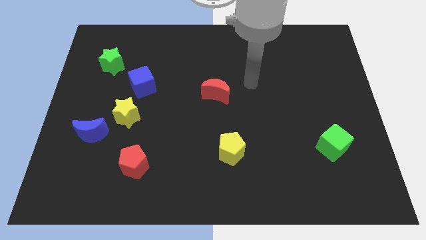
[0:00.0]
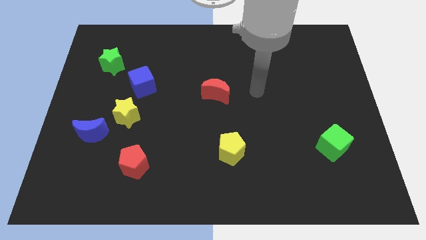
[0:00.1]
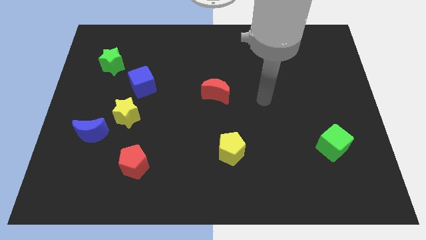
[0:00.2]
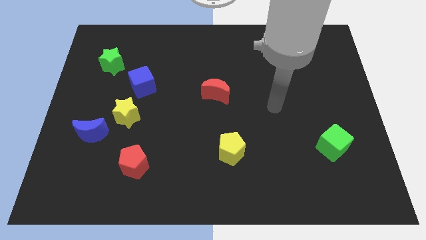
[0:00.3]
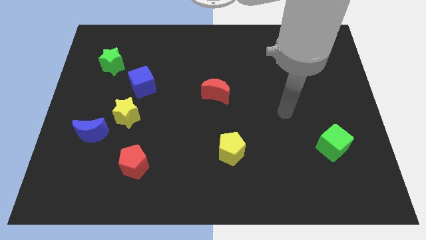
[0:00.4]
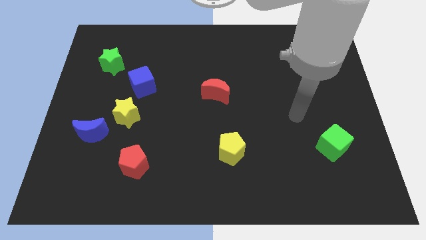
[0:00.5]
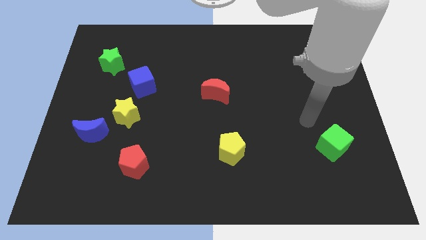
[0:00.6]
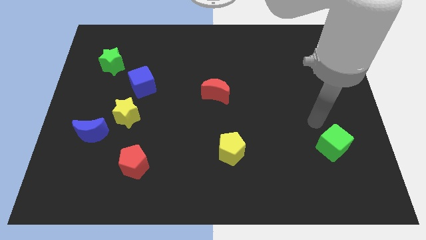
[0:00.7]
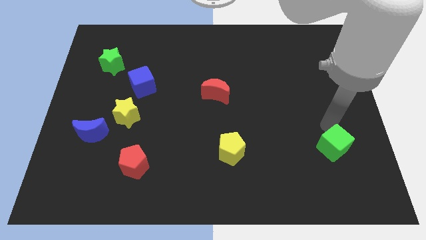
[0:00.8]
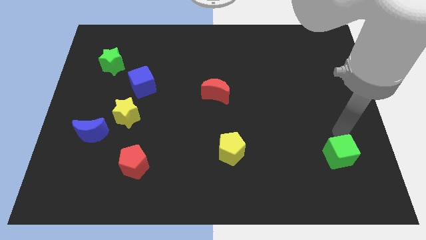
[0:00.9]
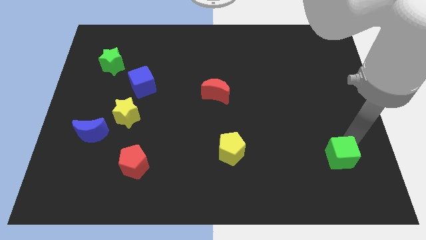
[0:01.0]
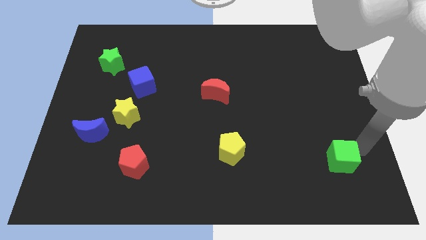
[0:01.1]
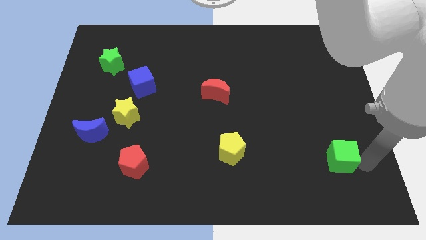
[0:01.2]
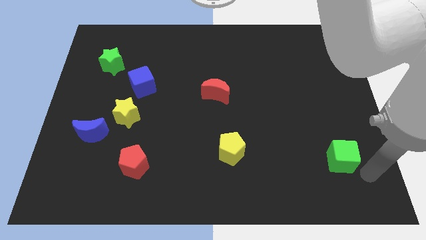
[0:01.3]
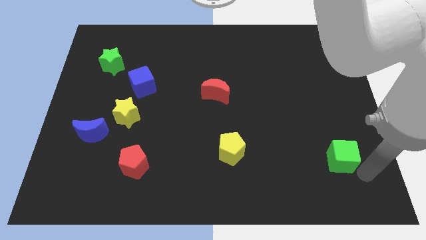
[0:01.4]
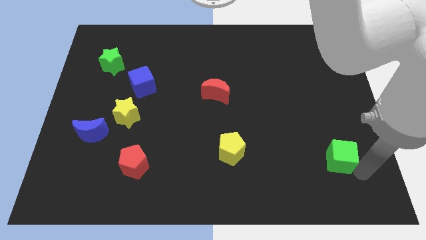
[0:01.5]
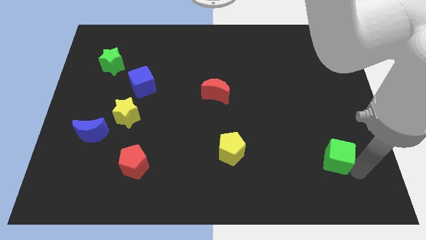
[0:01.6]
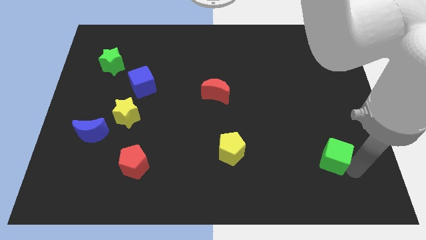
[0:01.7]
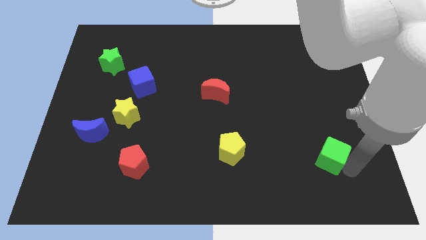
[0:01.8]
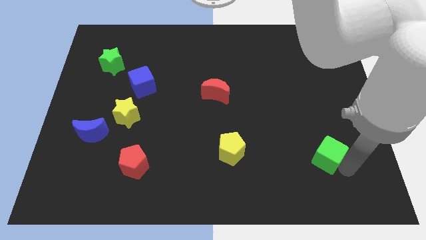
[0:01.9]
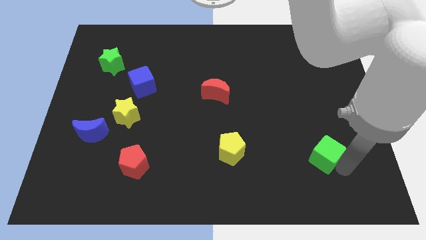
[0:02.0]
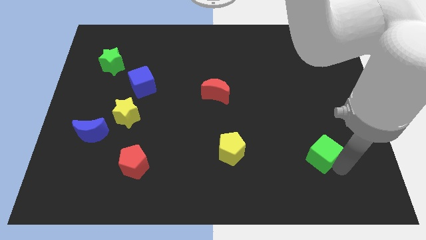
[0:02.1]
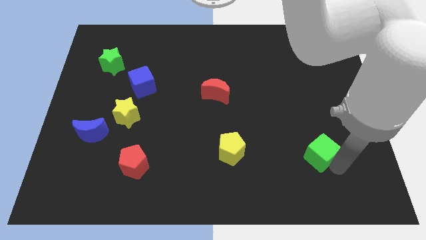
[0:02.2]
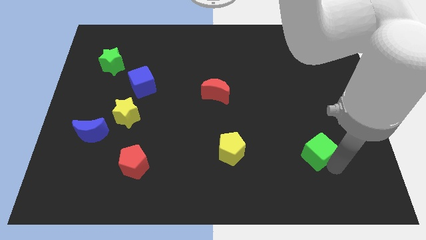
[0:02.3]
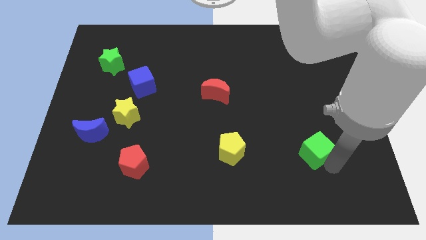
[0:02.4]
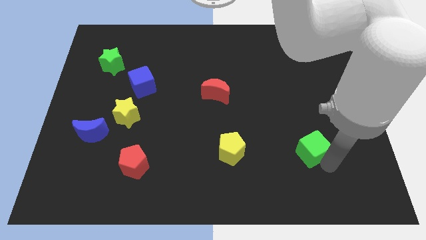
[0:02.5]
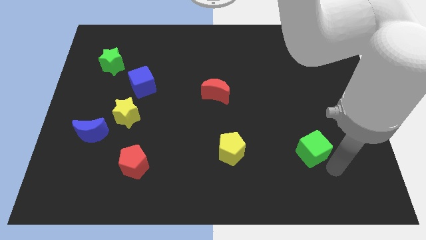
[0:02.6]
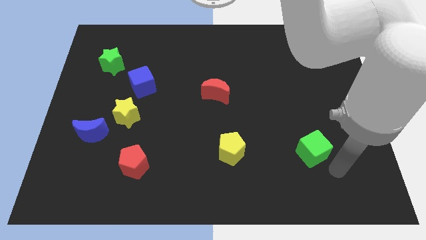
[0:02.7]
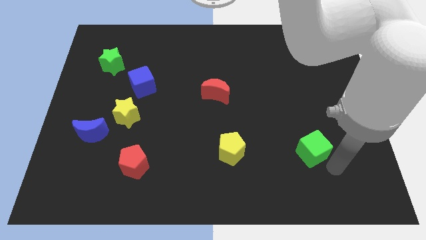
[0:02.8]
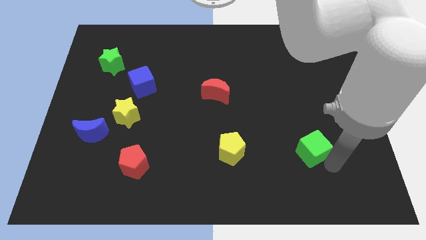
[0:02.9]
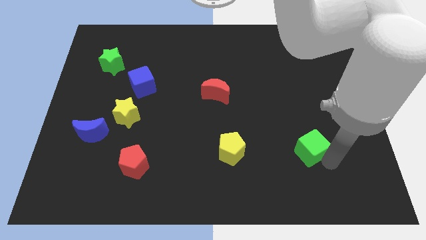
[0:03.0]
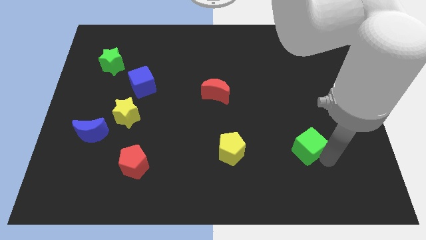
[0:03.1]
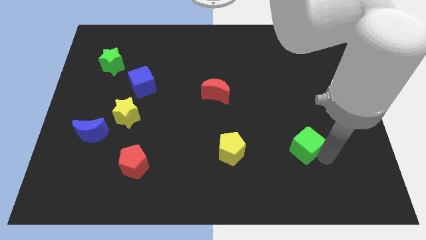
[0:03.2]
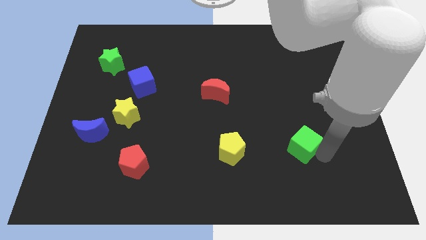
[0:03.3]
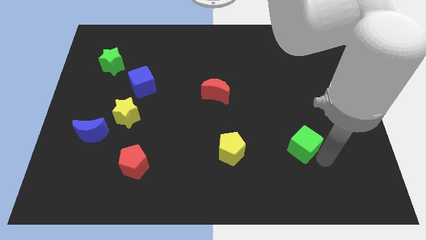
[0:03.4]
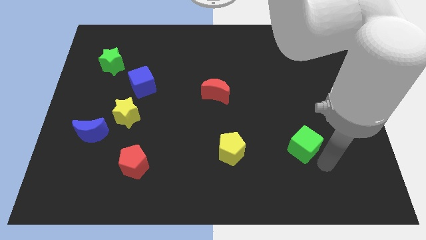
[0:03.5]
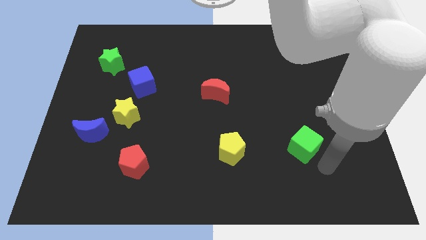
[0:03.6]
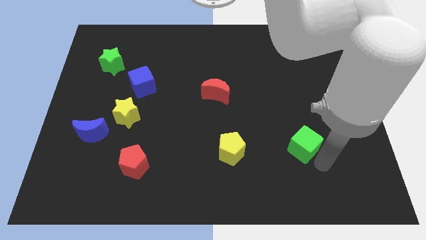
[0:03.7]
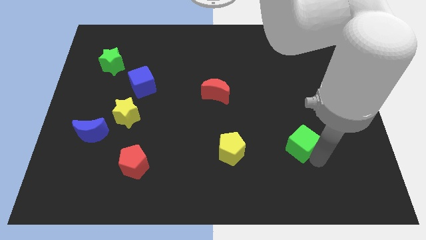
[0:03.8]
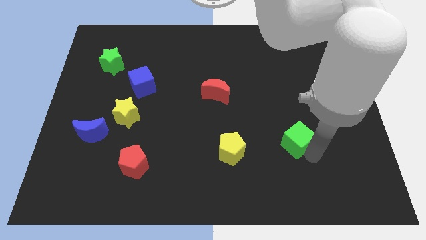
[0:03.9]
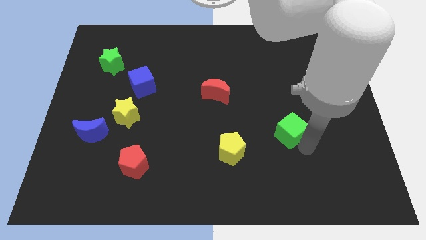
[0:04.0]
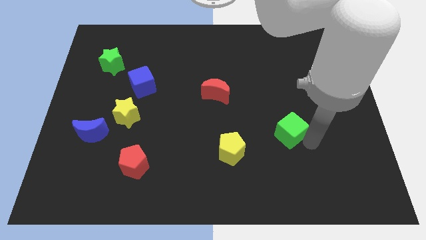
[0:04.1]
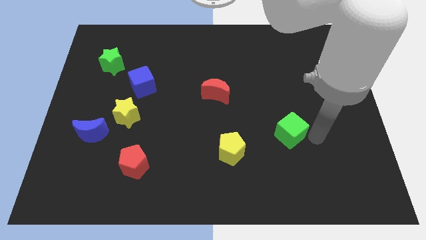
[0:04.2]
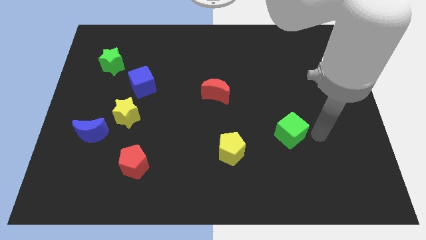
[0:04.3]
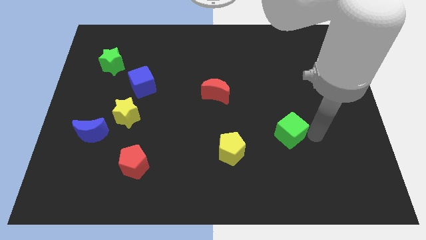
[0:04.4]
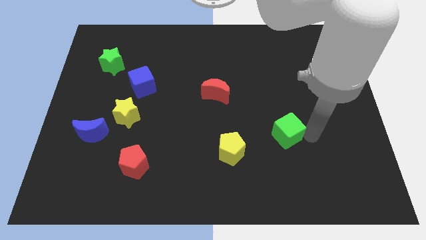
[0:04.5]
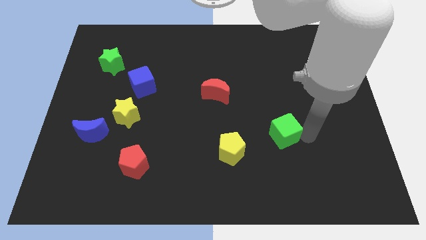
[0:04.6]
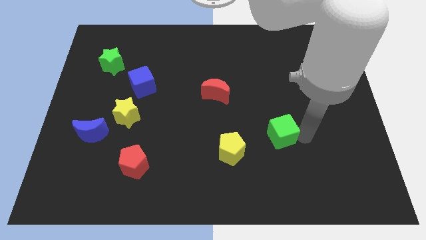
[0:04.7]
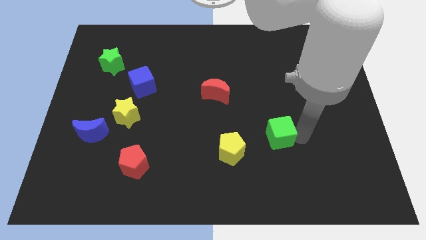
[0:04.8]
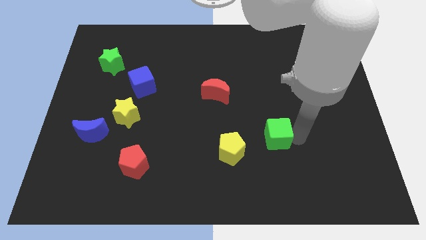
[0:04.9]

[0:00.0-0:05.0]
put the green cube to the top right side of the yellow pentagon

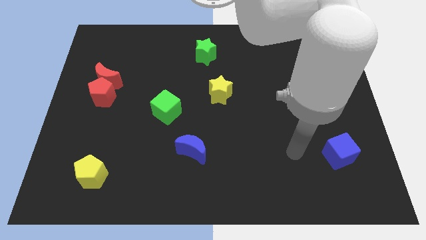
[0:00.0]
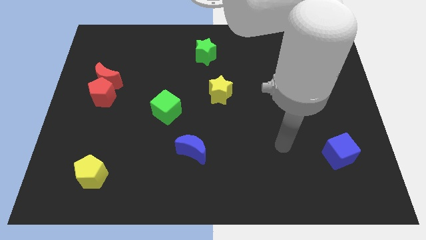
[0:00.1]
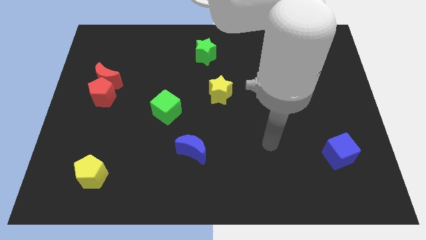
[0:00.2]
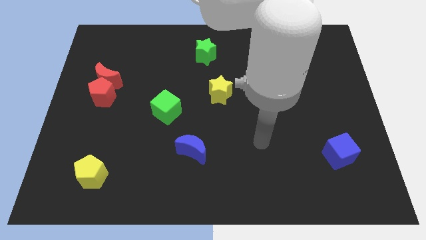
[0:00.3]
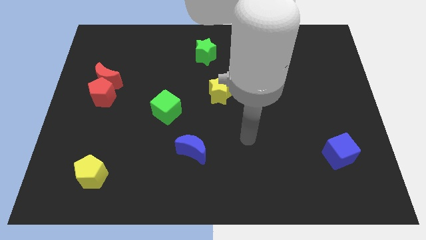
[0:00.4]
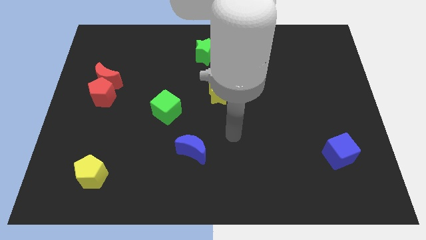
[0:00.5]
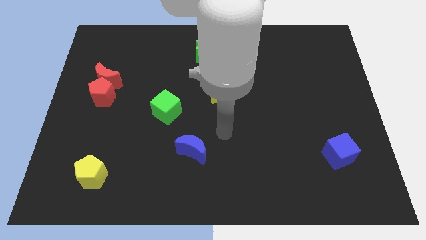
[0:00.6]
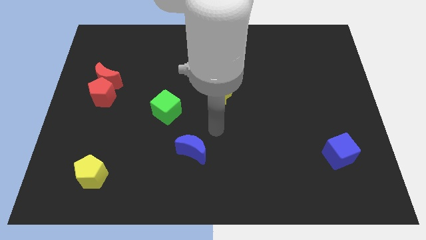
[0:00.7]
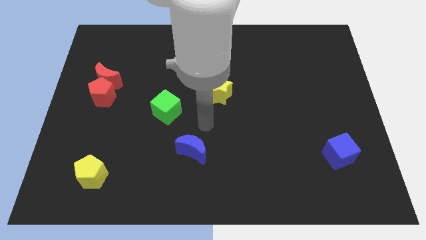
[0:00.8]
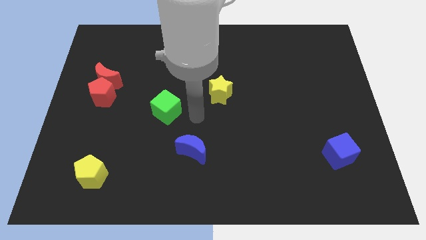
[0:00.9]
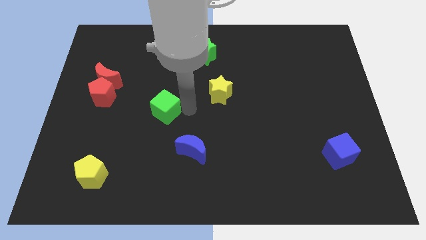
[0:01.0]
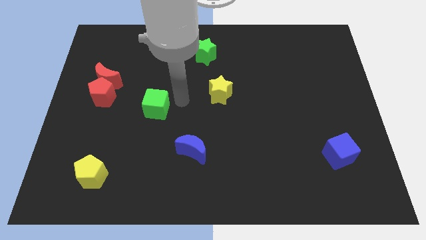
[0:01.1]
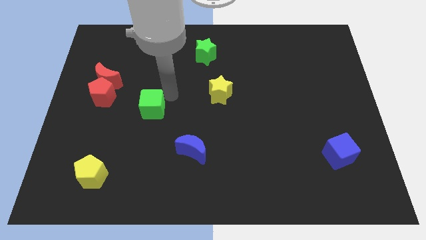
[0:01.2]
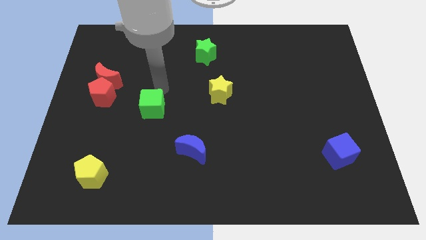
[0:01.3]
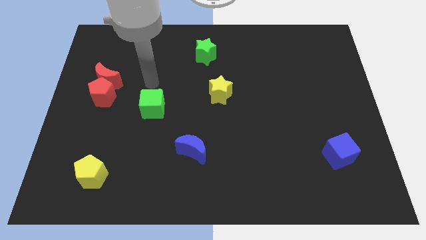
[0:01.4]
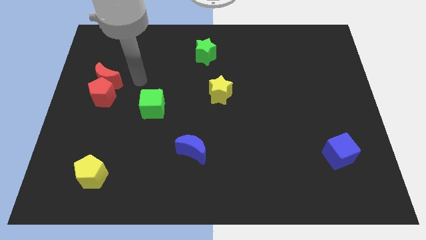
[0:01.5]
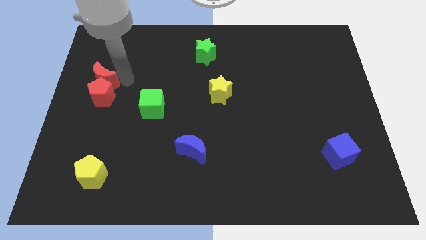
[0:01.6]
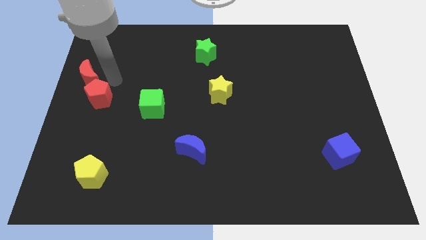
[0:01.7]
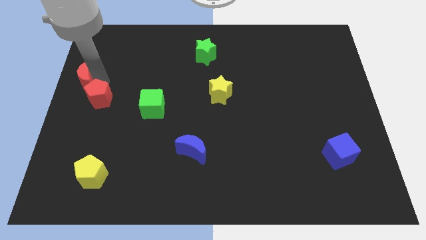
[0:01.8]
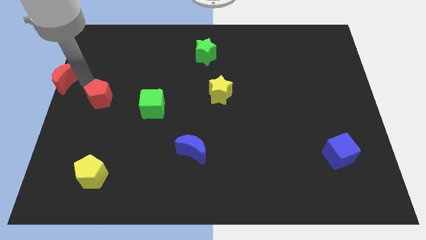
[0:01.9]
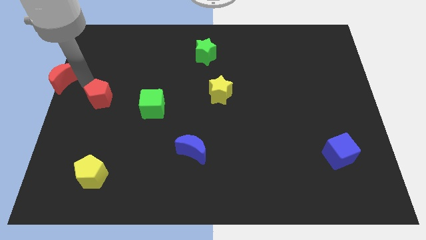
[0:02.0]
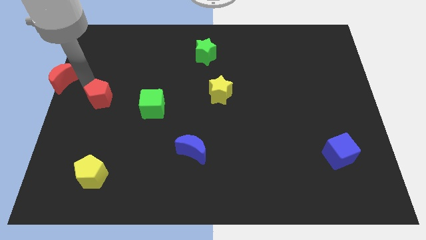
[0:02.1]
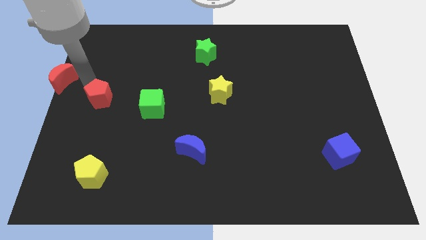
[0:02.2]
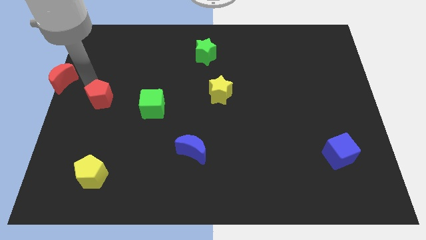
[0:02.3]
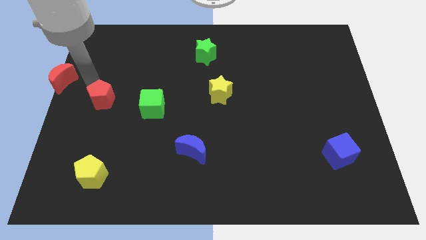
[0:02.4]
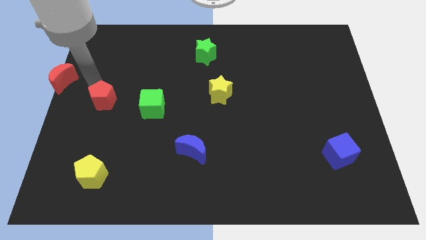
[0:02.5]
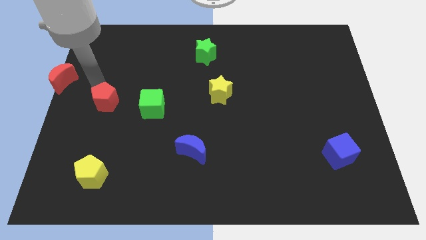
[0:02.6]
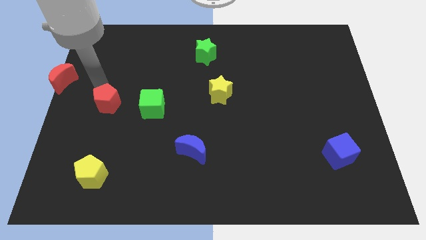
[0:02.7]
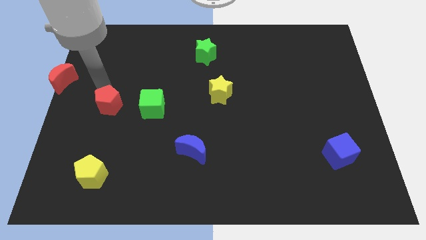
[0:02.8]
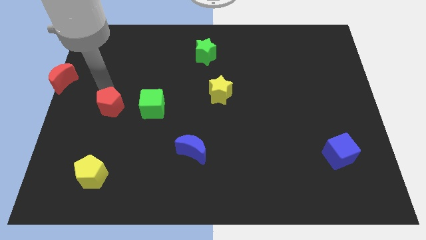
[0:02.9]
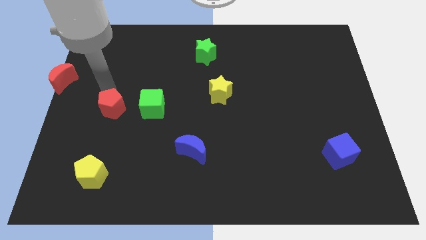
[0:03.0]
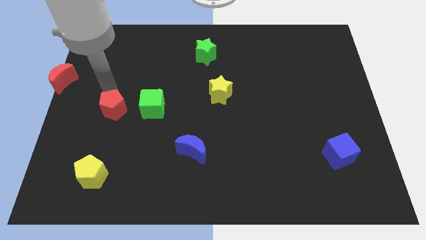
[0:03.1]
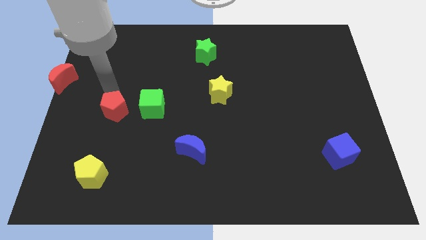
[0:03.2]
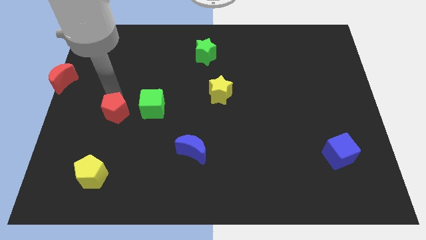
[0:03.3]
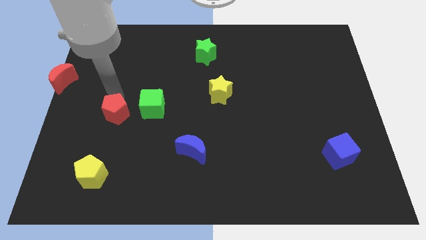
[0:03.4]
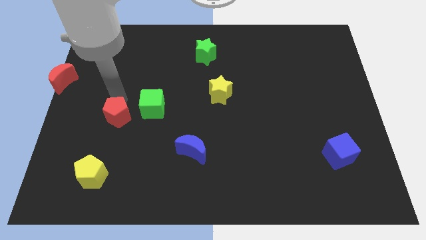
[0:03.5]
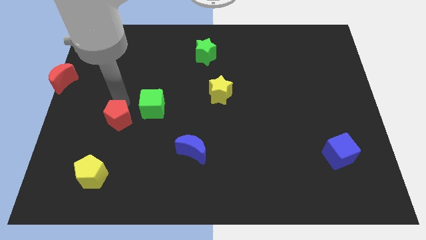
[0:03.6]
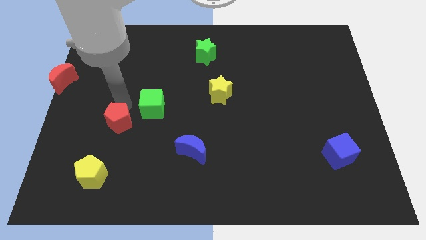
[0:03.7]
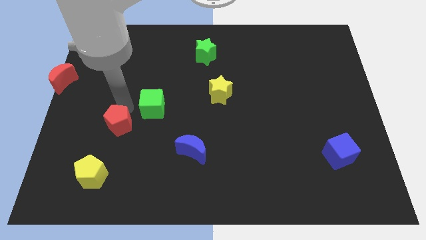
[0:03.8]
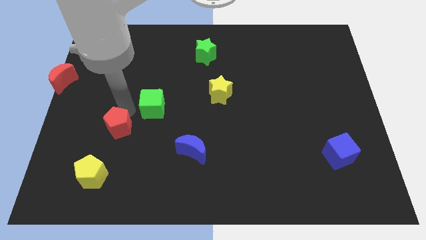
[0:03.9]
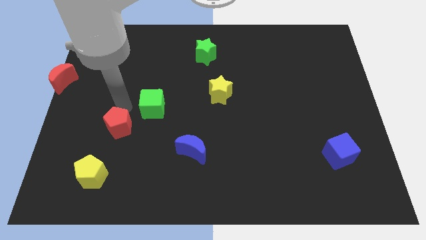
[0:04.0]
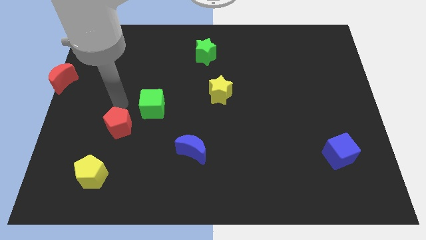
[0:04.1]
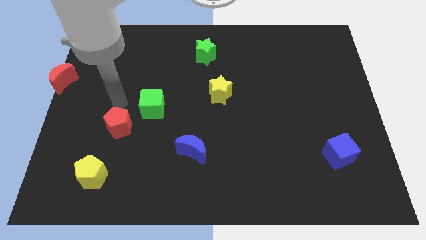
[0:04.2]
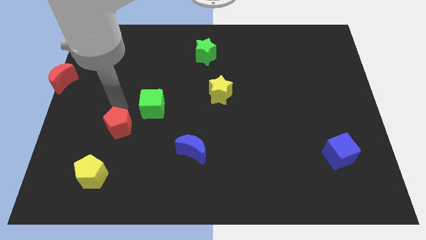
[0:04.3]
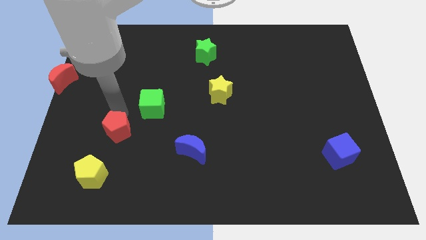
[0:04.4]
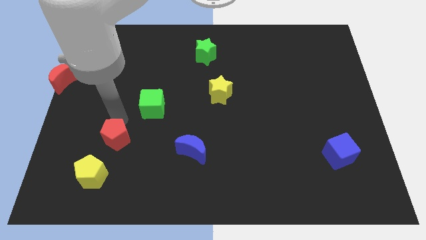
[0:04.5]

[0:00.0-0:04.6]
push the red pentagon diagonally up and to the right of the yellow pentagon
